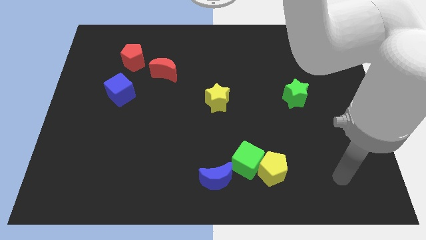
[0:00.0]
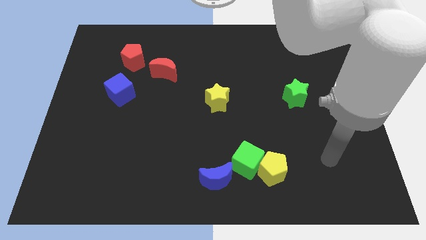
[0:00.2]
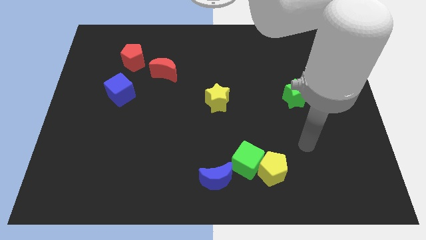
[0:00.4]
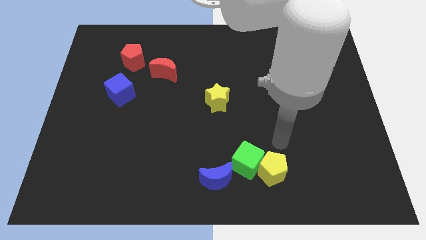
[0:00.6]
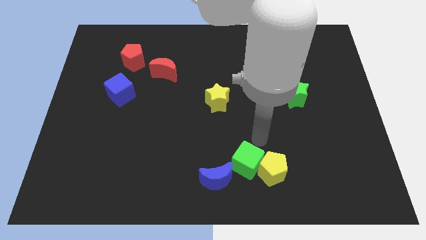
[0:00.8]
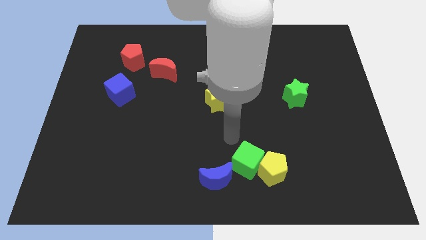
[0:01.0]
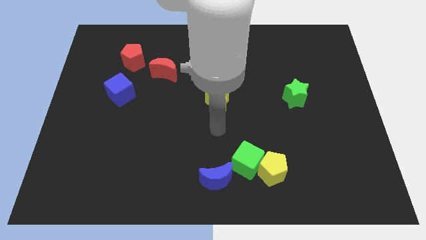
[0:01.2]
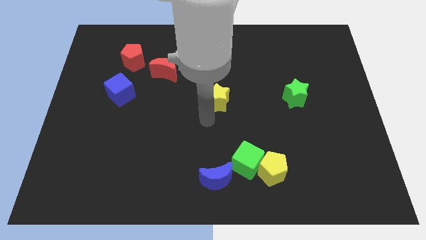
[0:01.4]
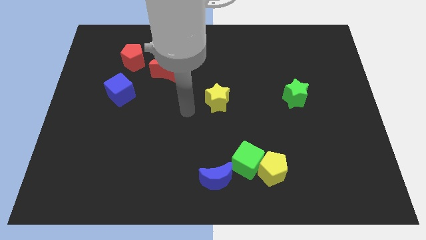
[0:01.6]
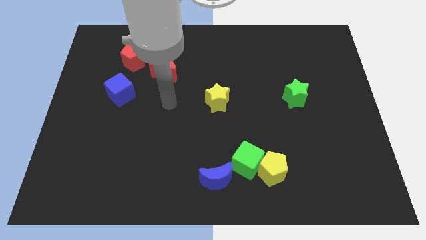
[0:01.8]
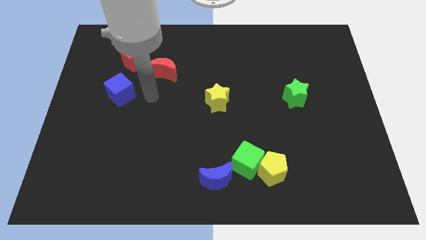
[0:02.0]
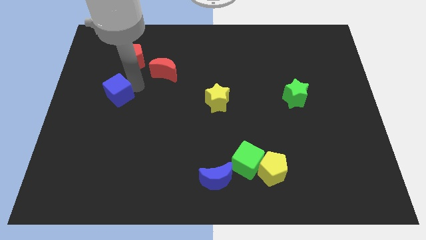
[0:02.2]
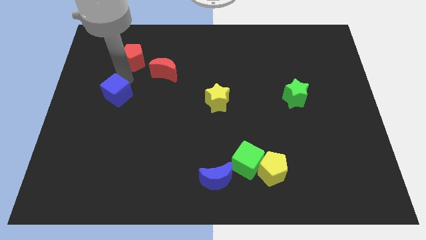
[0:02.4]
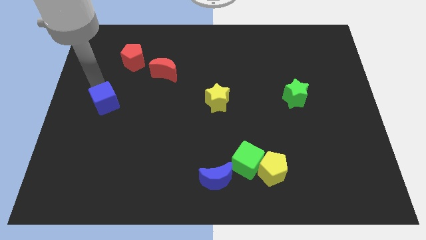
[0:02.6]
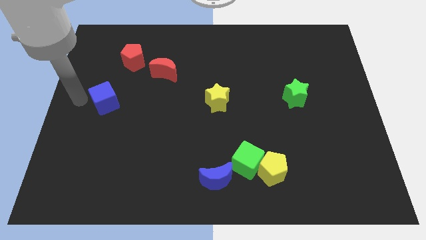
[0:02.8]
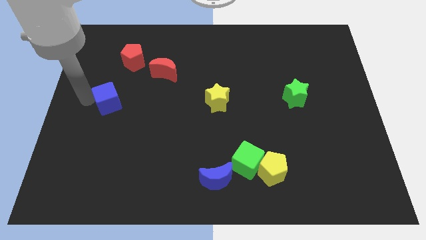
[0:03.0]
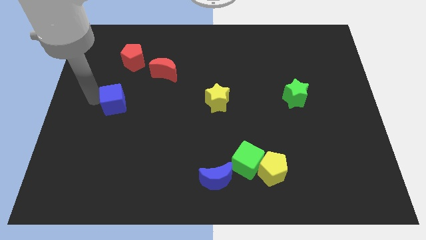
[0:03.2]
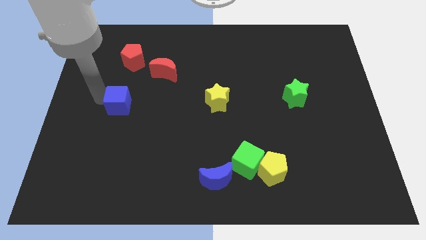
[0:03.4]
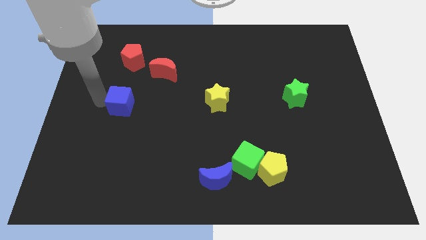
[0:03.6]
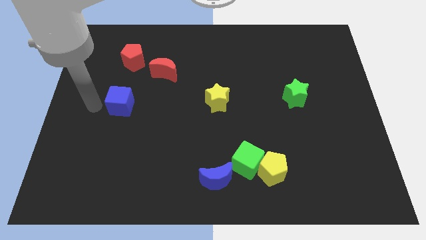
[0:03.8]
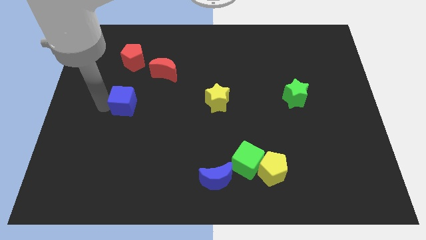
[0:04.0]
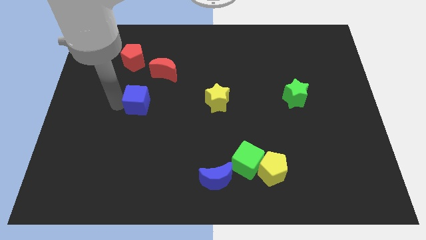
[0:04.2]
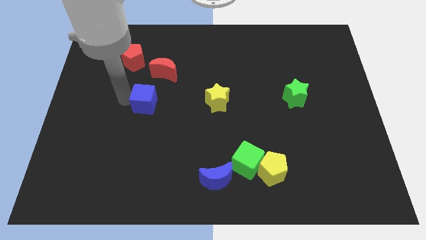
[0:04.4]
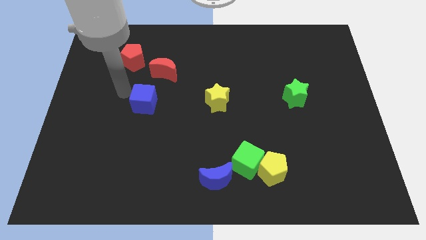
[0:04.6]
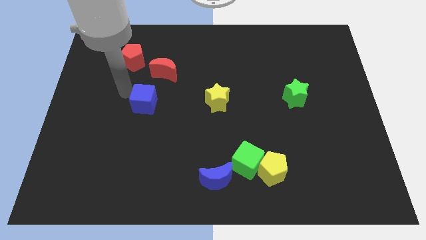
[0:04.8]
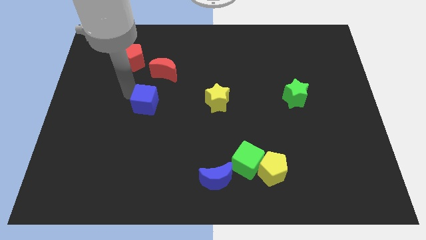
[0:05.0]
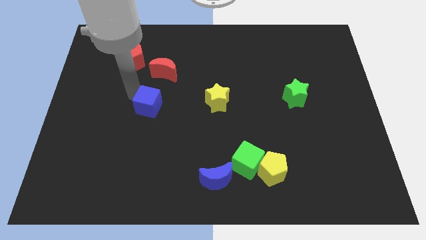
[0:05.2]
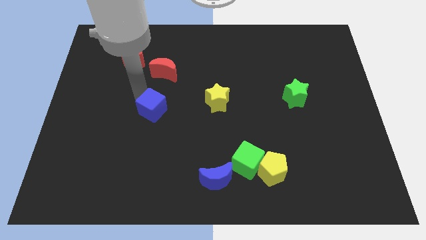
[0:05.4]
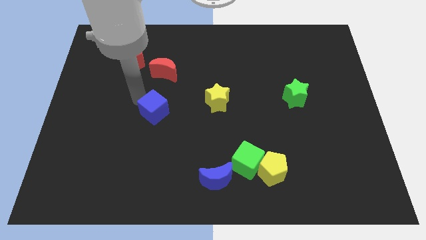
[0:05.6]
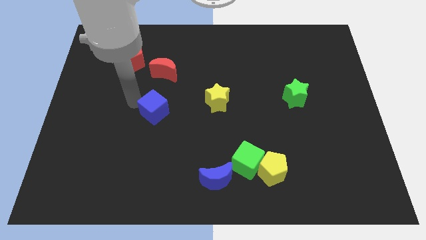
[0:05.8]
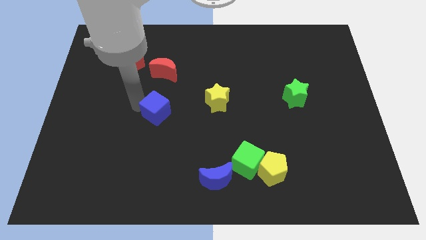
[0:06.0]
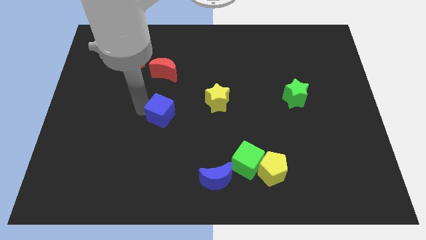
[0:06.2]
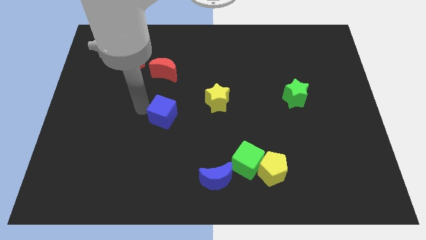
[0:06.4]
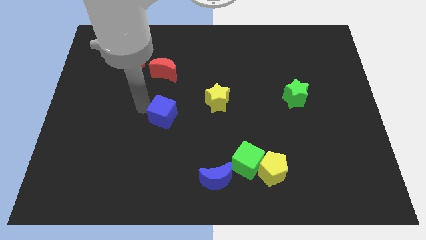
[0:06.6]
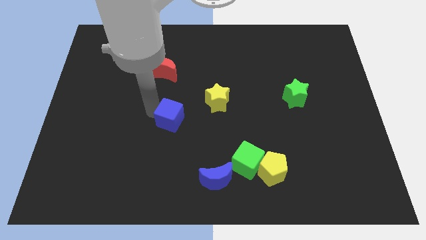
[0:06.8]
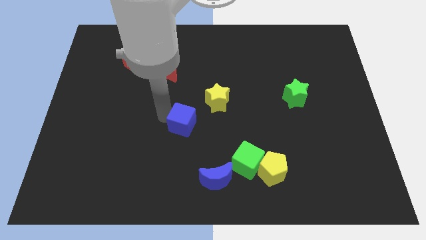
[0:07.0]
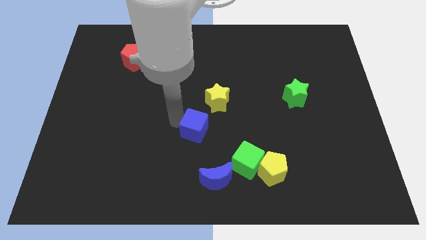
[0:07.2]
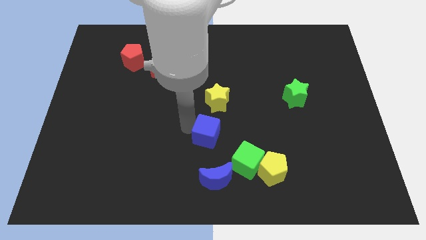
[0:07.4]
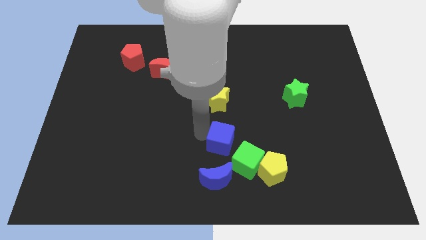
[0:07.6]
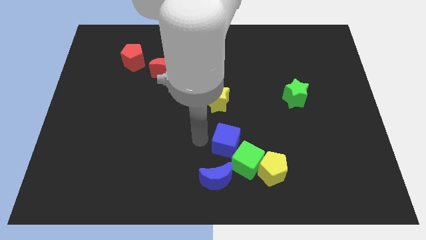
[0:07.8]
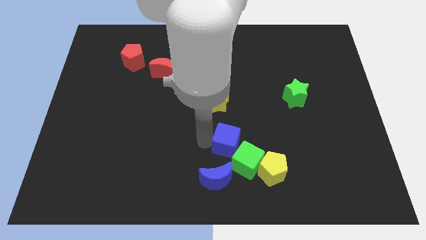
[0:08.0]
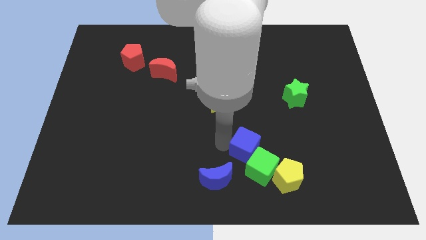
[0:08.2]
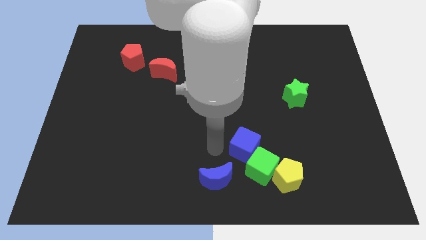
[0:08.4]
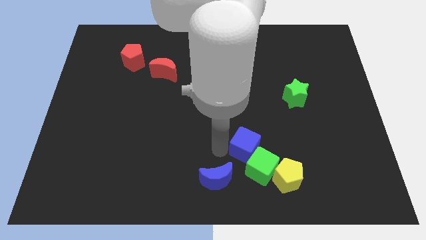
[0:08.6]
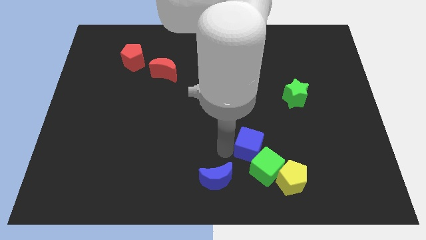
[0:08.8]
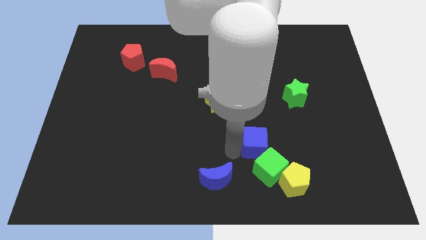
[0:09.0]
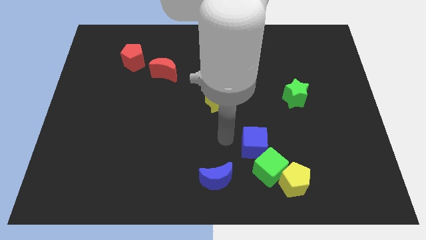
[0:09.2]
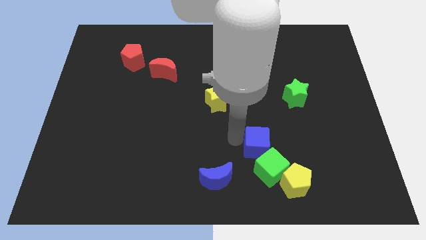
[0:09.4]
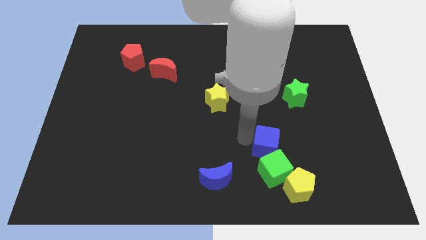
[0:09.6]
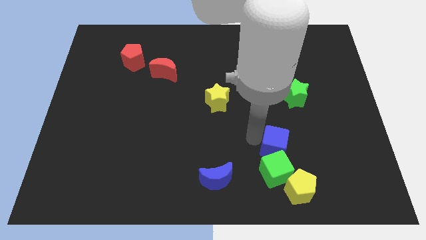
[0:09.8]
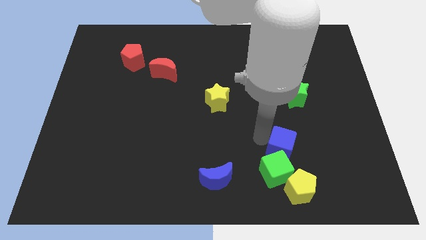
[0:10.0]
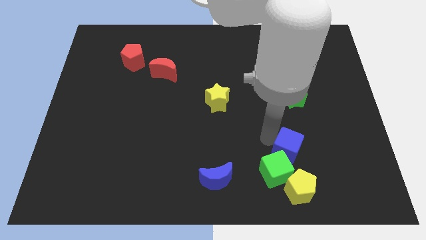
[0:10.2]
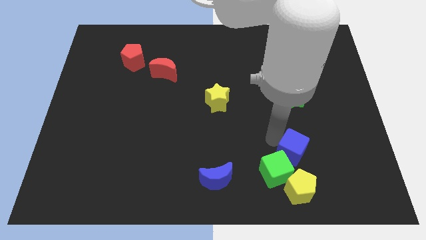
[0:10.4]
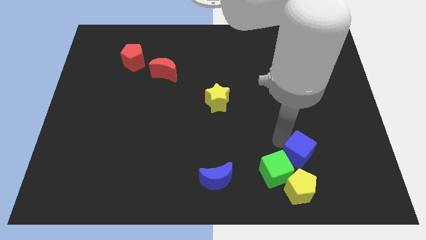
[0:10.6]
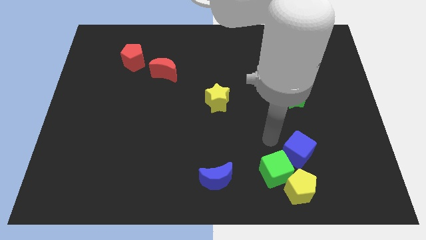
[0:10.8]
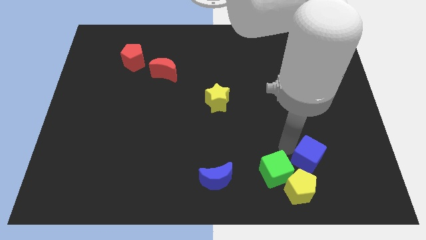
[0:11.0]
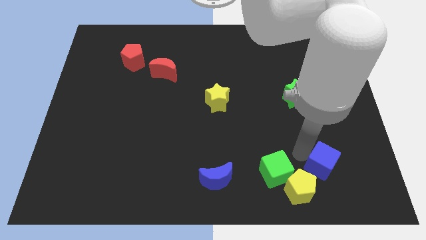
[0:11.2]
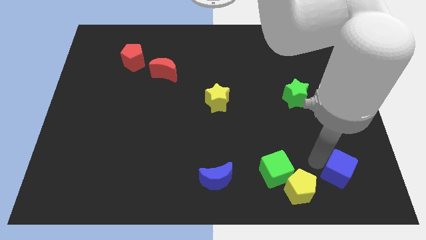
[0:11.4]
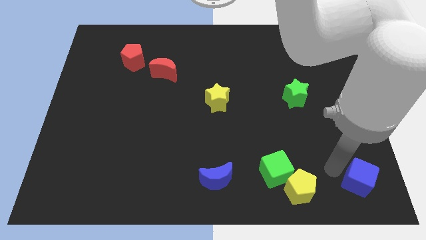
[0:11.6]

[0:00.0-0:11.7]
move the blue cube to the bottom right of the board
